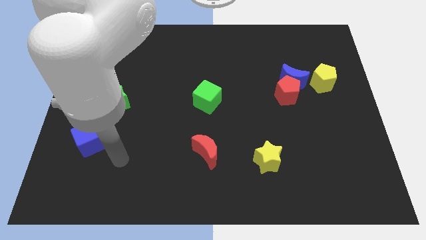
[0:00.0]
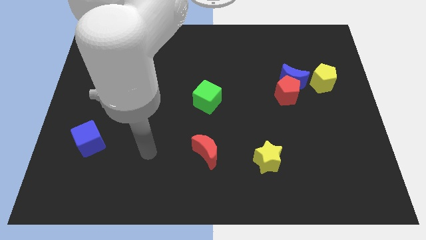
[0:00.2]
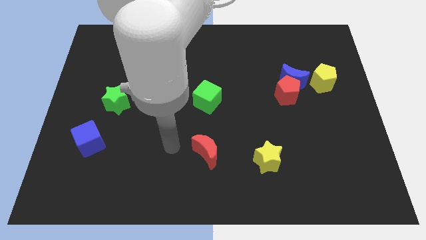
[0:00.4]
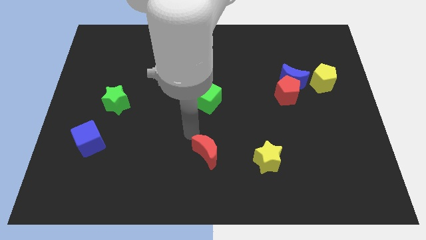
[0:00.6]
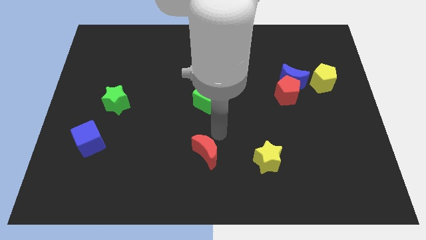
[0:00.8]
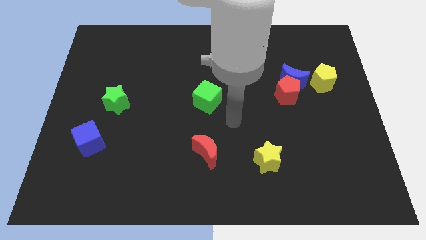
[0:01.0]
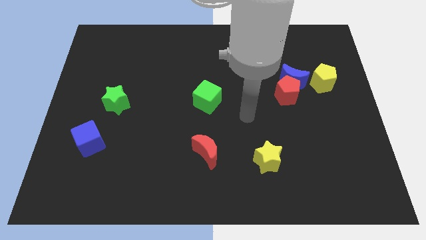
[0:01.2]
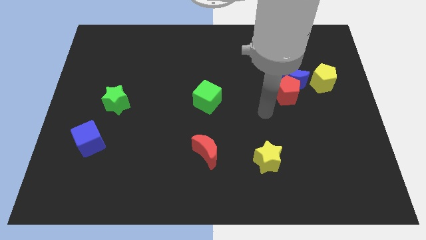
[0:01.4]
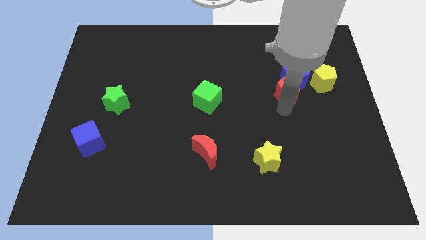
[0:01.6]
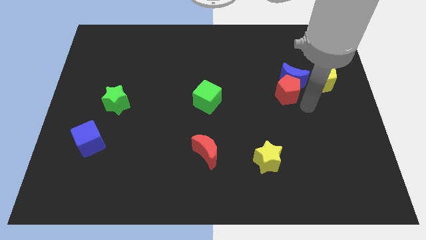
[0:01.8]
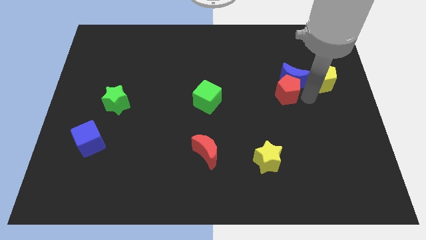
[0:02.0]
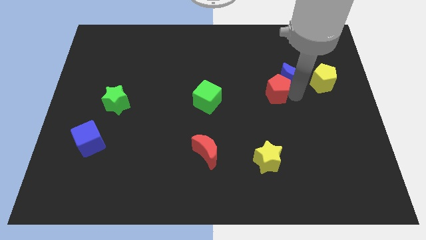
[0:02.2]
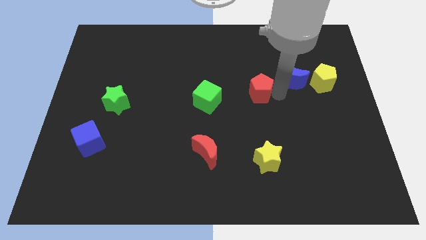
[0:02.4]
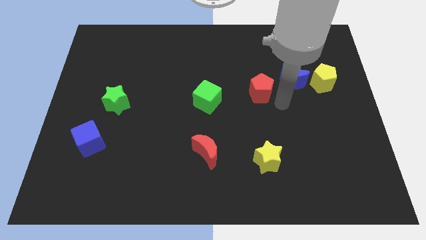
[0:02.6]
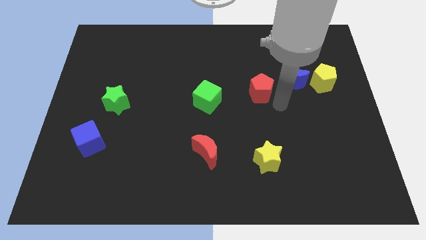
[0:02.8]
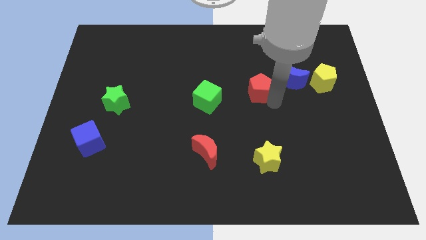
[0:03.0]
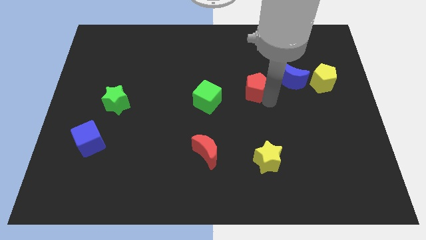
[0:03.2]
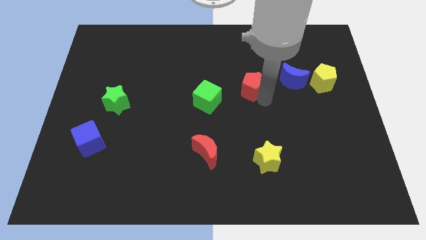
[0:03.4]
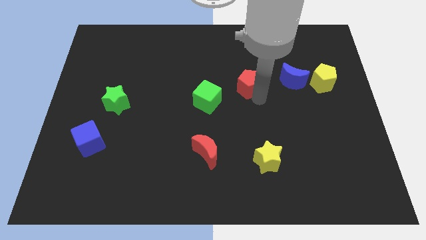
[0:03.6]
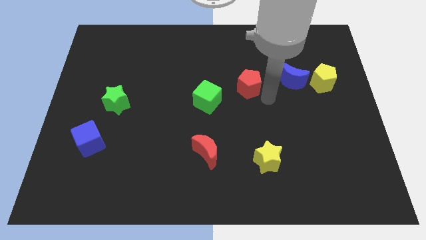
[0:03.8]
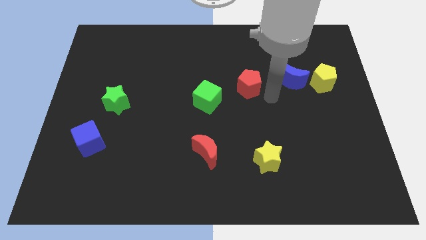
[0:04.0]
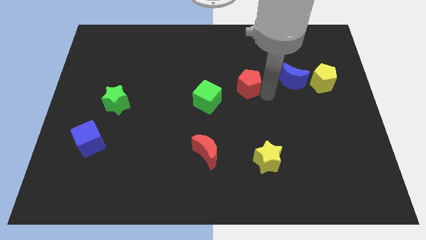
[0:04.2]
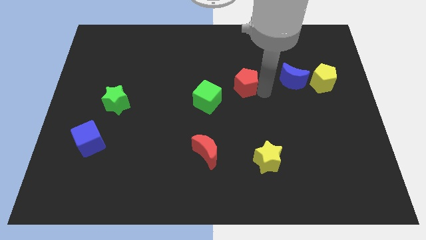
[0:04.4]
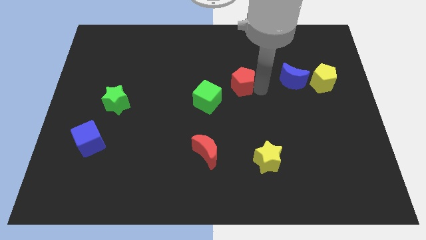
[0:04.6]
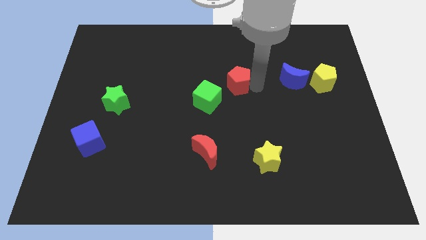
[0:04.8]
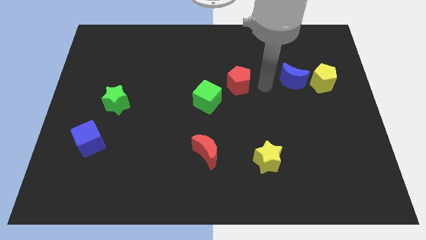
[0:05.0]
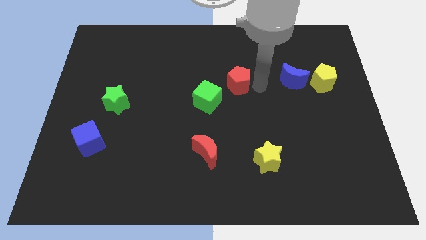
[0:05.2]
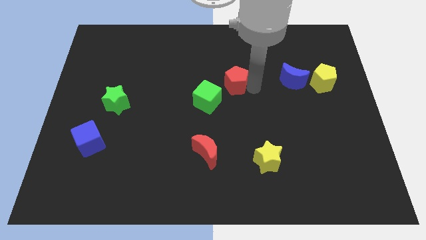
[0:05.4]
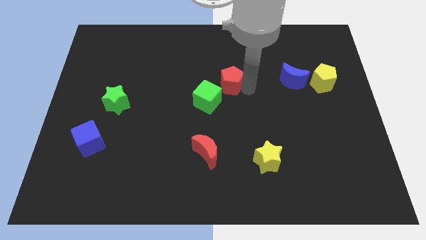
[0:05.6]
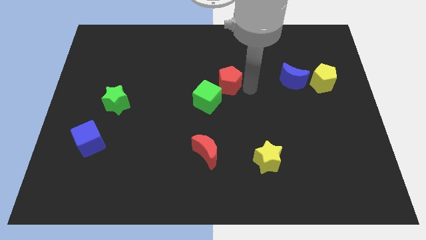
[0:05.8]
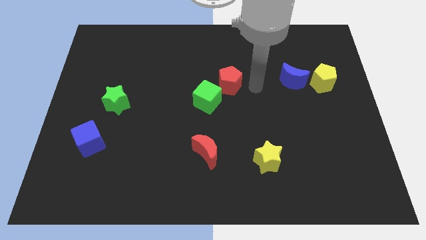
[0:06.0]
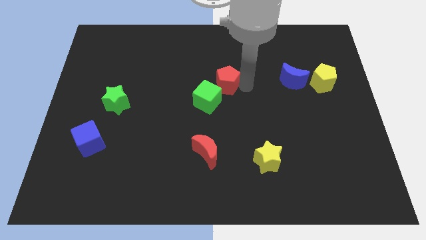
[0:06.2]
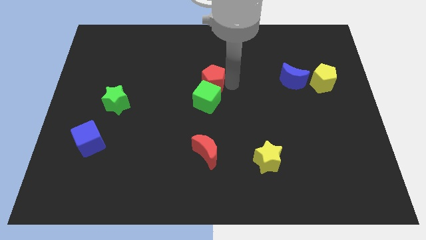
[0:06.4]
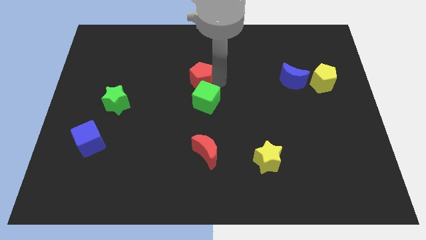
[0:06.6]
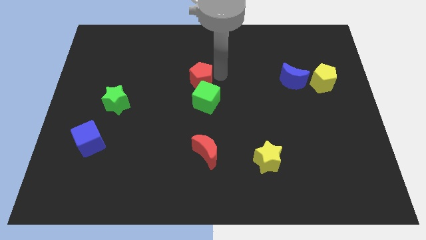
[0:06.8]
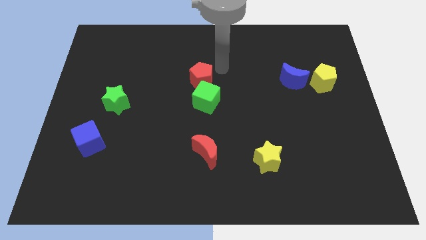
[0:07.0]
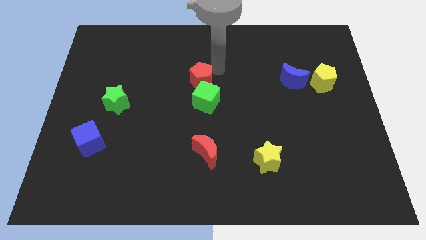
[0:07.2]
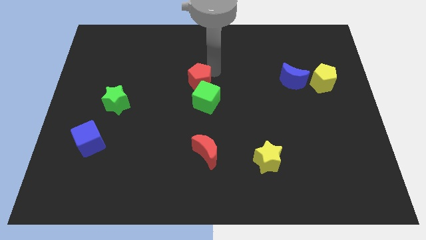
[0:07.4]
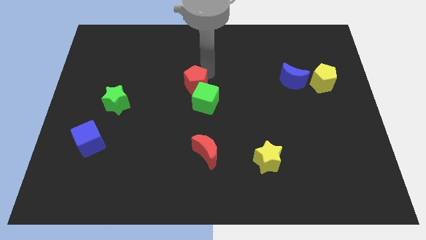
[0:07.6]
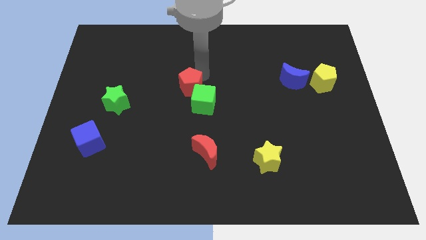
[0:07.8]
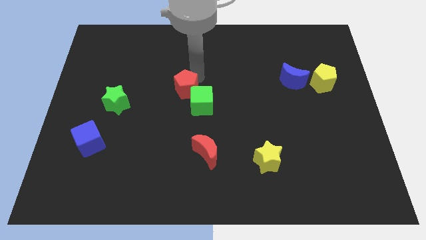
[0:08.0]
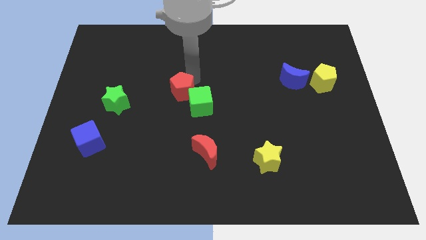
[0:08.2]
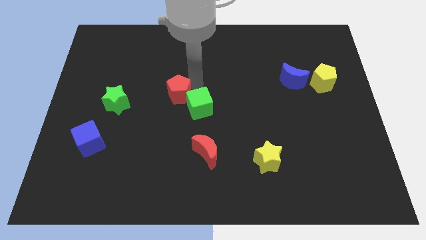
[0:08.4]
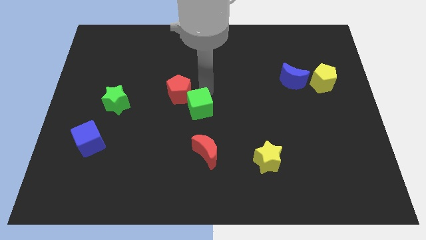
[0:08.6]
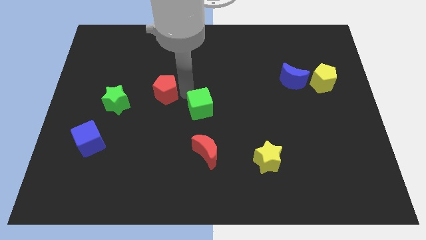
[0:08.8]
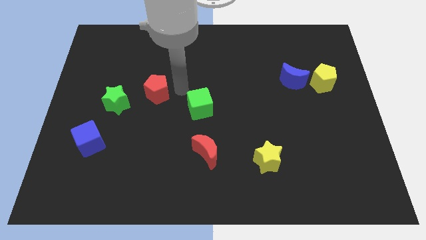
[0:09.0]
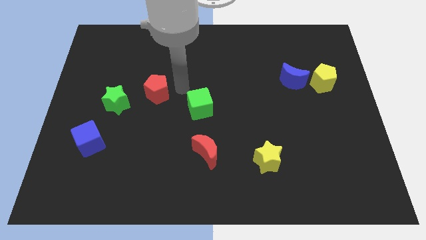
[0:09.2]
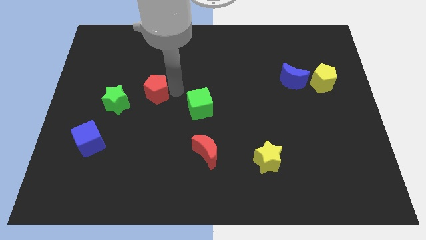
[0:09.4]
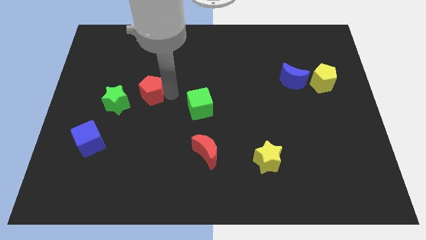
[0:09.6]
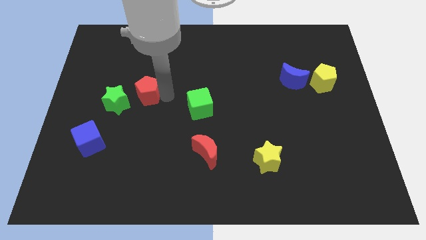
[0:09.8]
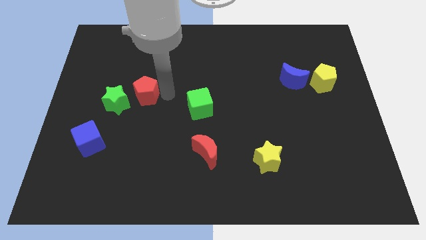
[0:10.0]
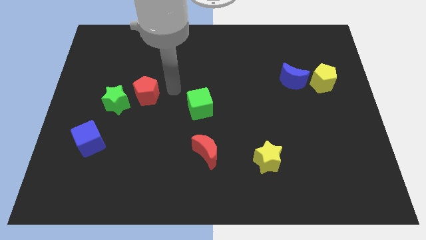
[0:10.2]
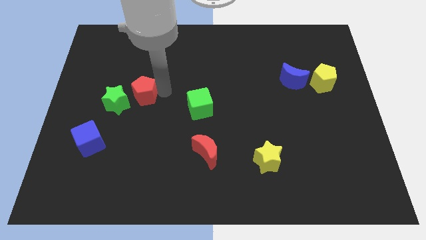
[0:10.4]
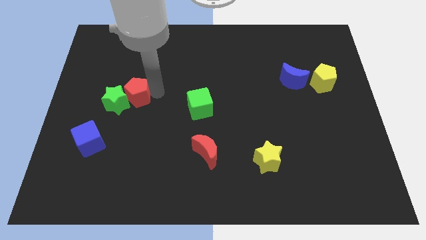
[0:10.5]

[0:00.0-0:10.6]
move the red pentagon to the green star

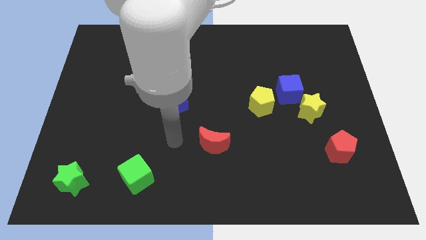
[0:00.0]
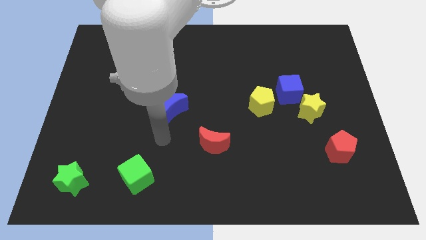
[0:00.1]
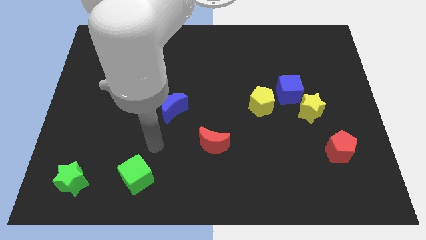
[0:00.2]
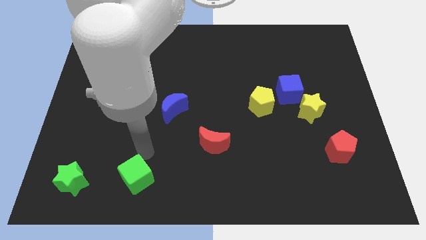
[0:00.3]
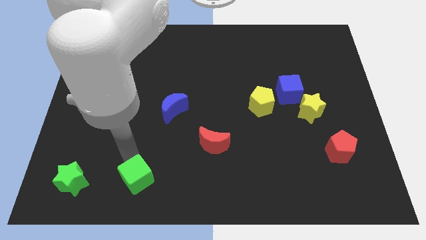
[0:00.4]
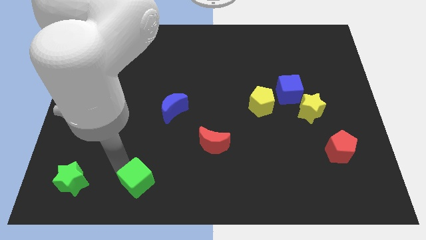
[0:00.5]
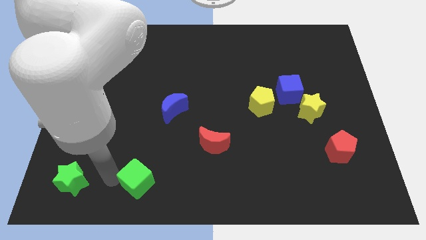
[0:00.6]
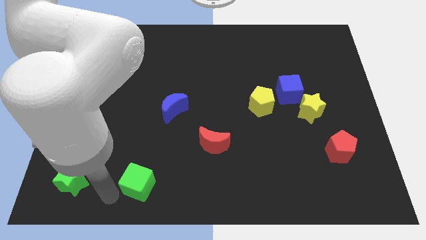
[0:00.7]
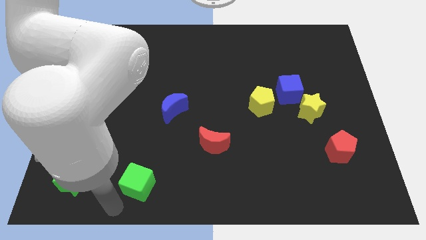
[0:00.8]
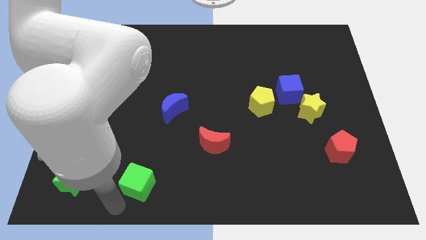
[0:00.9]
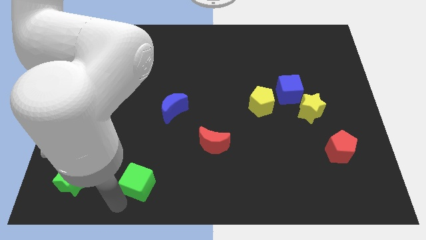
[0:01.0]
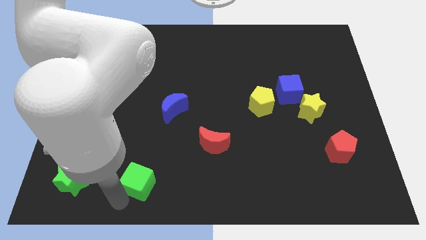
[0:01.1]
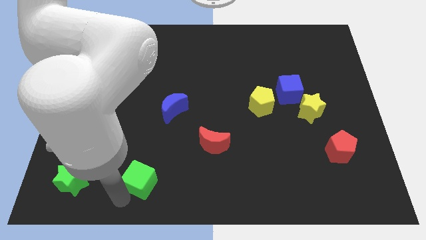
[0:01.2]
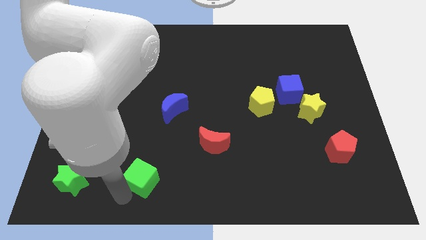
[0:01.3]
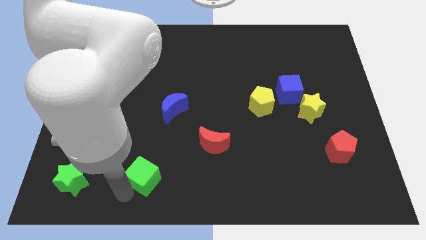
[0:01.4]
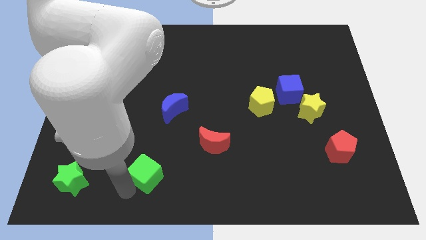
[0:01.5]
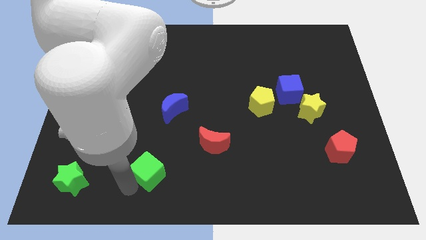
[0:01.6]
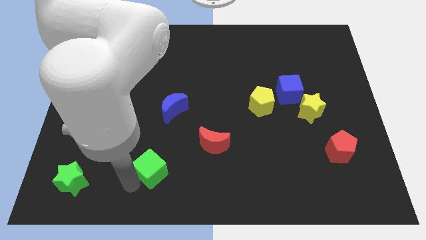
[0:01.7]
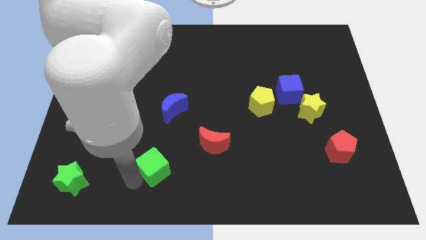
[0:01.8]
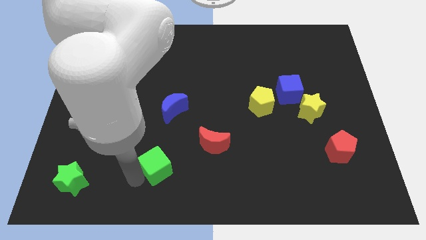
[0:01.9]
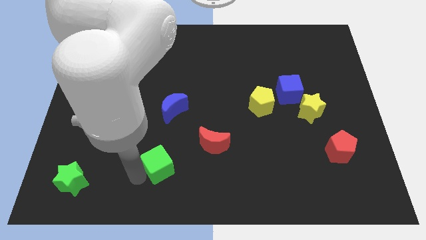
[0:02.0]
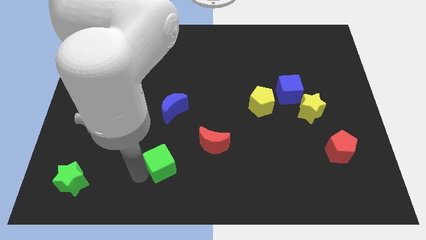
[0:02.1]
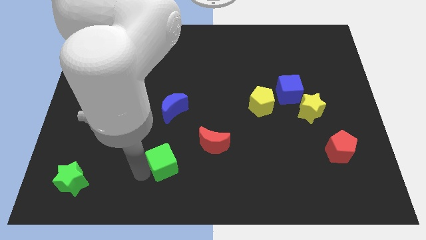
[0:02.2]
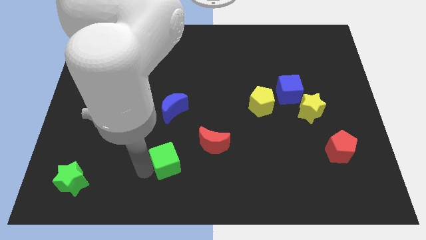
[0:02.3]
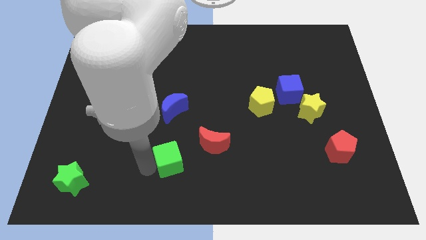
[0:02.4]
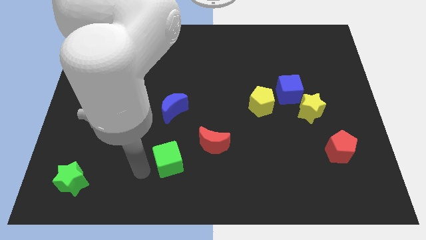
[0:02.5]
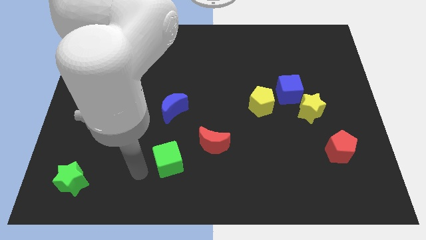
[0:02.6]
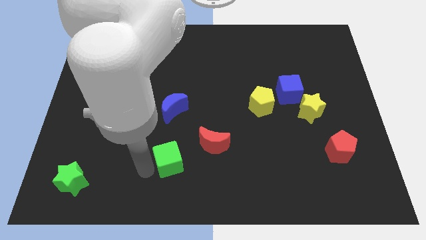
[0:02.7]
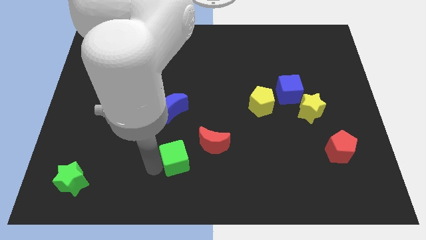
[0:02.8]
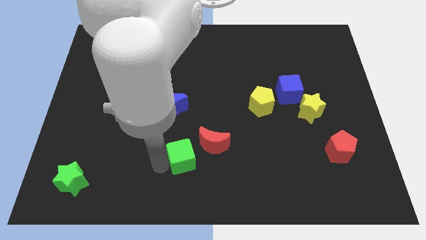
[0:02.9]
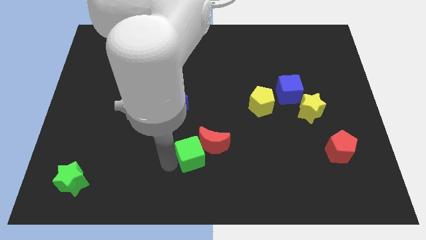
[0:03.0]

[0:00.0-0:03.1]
push the green cube to the red moon
